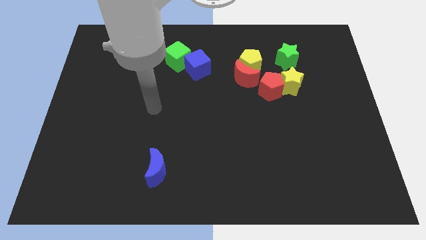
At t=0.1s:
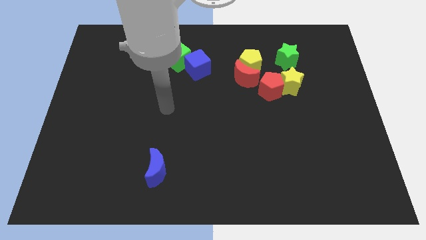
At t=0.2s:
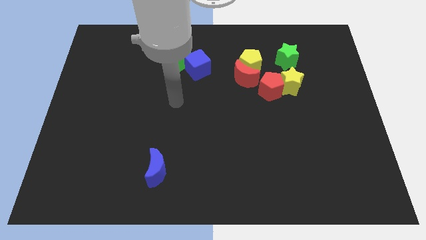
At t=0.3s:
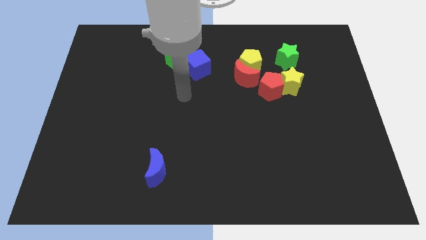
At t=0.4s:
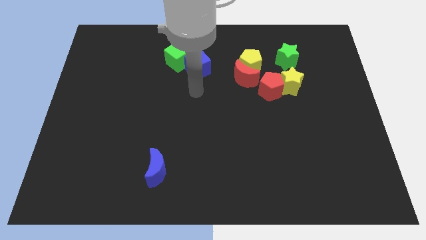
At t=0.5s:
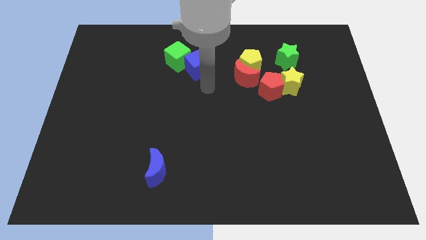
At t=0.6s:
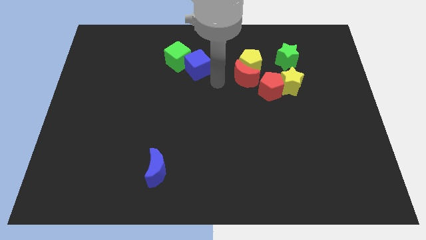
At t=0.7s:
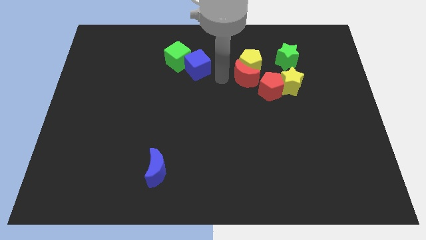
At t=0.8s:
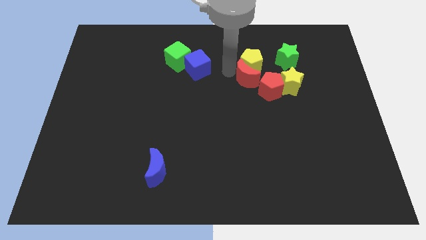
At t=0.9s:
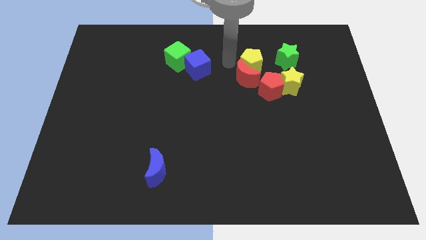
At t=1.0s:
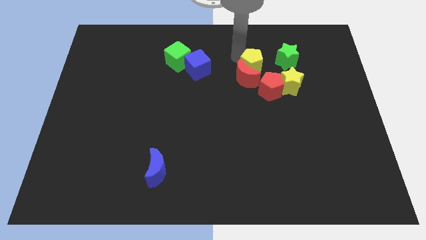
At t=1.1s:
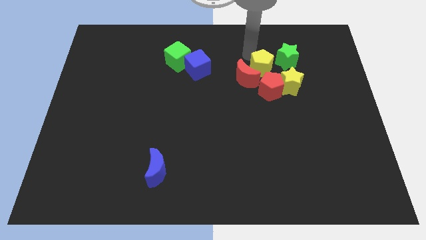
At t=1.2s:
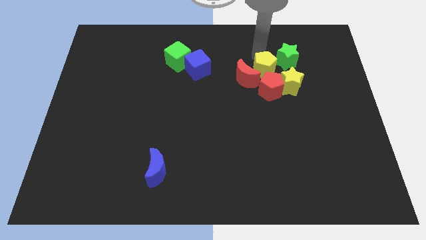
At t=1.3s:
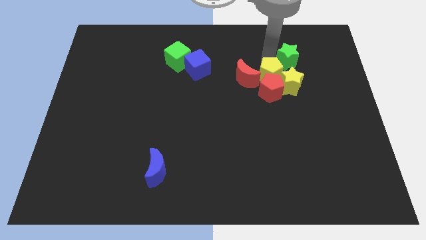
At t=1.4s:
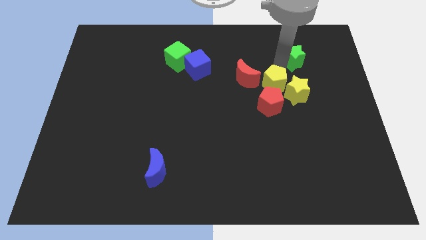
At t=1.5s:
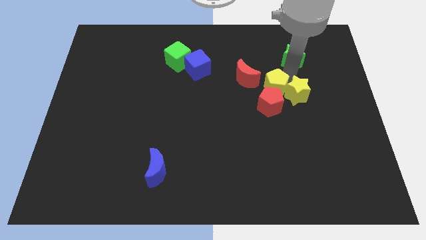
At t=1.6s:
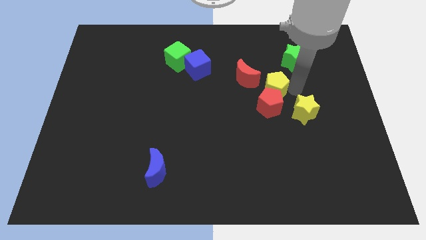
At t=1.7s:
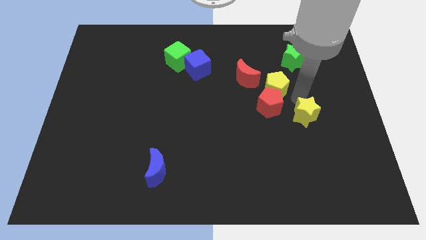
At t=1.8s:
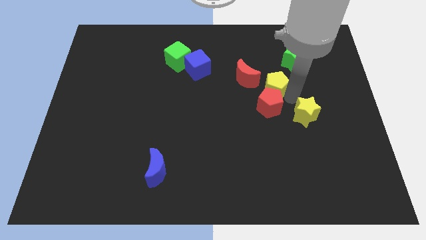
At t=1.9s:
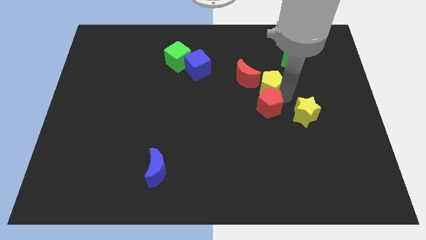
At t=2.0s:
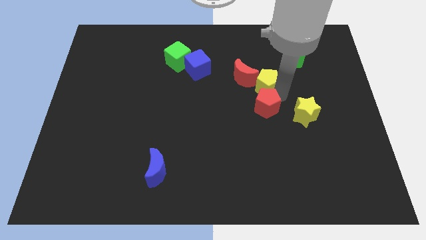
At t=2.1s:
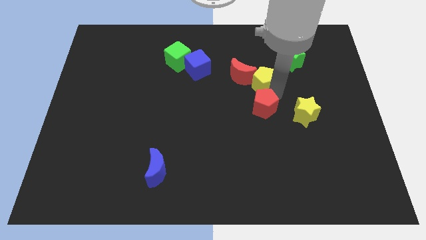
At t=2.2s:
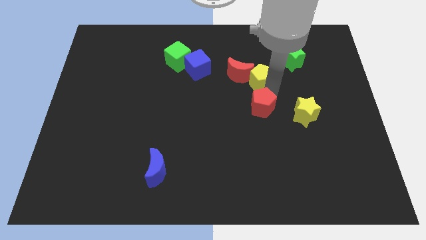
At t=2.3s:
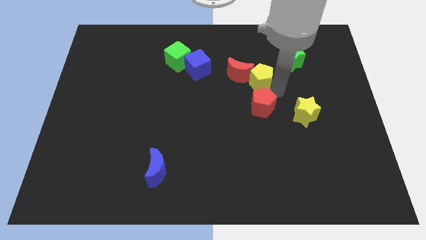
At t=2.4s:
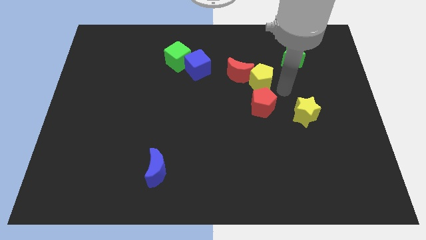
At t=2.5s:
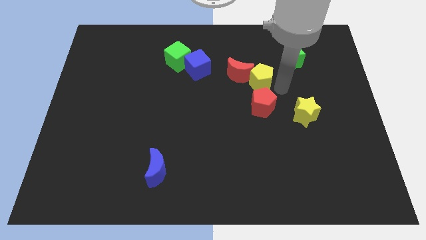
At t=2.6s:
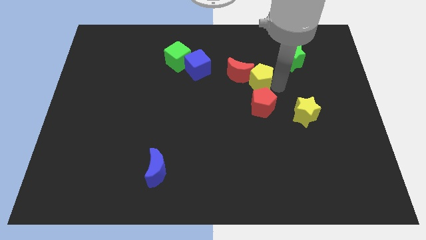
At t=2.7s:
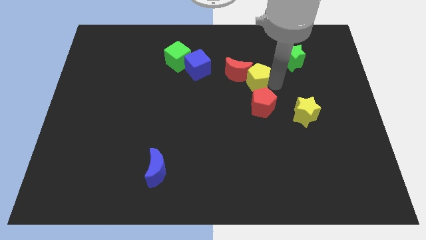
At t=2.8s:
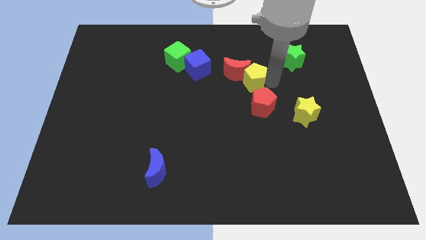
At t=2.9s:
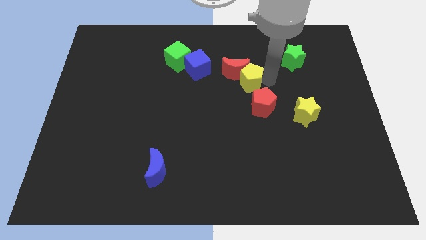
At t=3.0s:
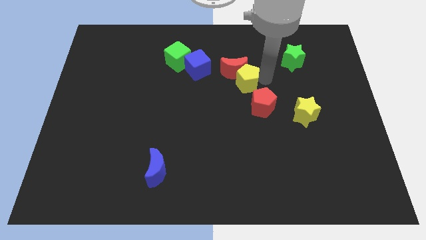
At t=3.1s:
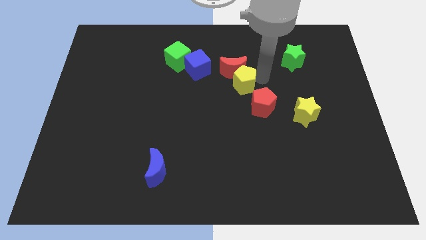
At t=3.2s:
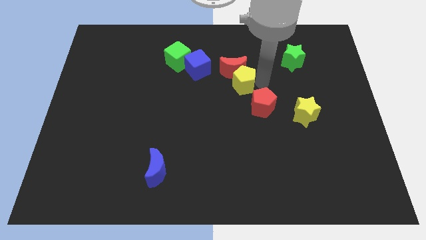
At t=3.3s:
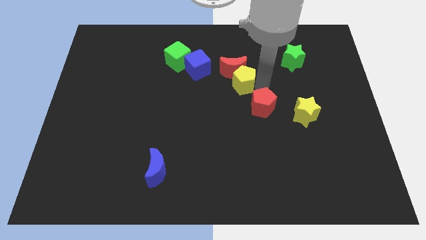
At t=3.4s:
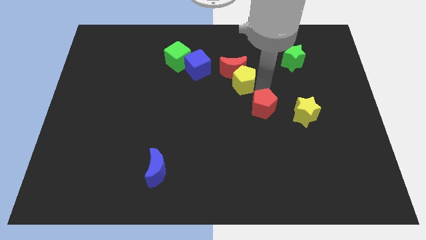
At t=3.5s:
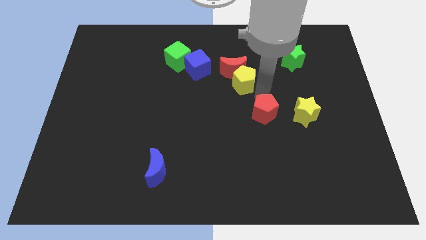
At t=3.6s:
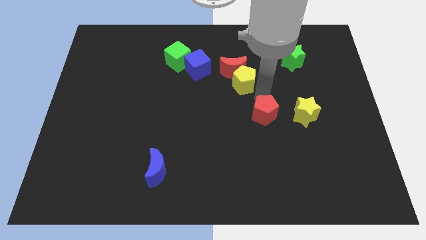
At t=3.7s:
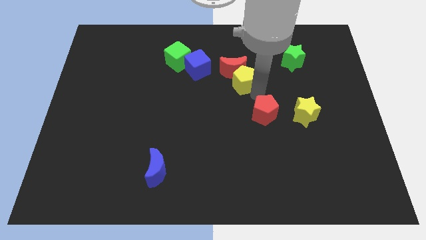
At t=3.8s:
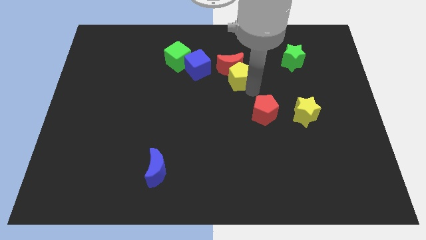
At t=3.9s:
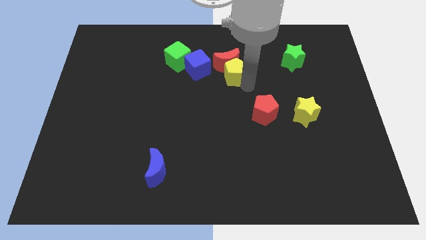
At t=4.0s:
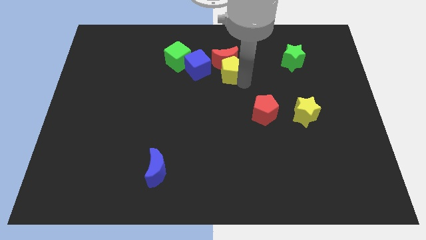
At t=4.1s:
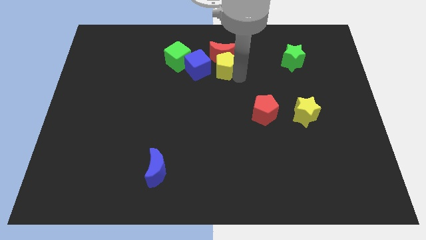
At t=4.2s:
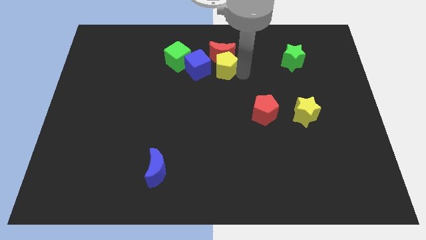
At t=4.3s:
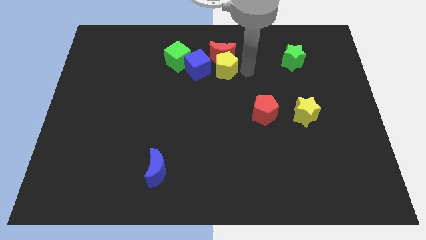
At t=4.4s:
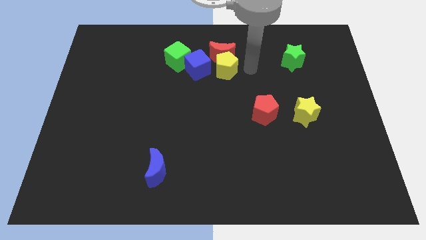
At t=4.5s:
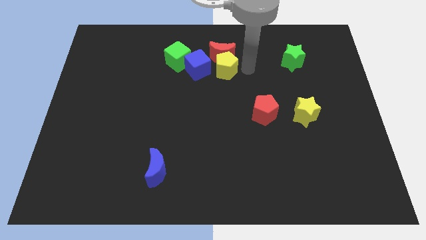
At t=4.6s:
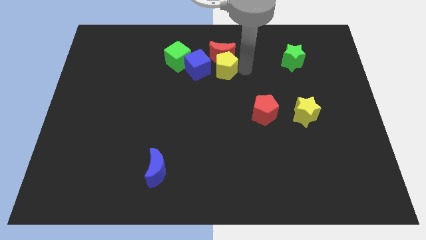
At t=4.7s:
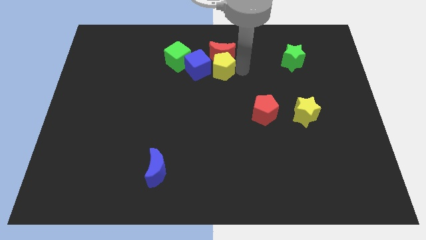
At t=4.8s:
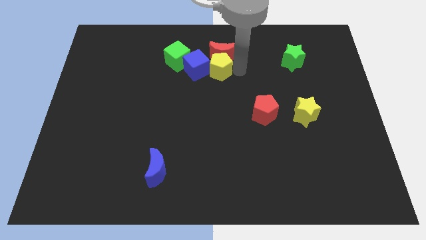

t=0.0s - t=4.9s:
move the yellow pentagon close to the blue cube

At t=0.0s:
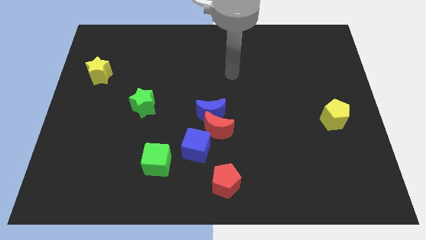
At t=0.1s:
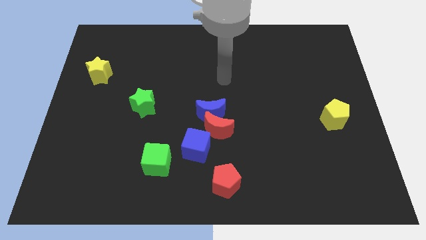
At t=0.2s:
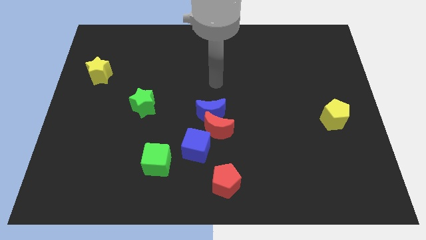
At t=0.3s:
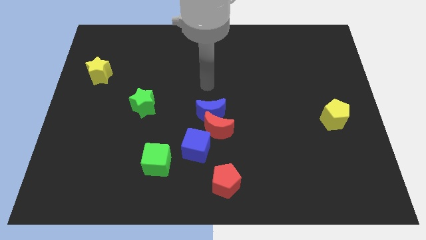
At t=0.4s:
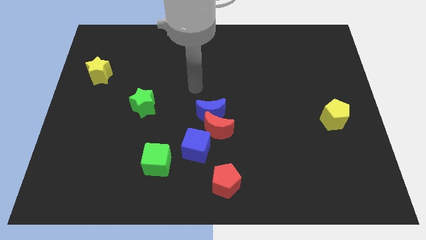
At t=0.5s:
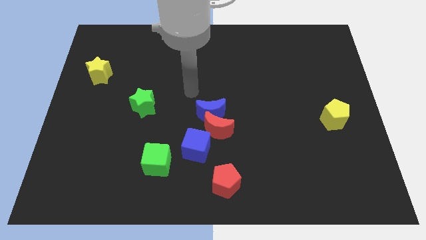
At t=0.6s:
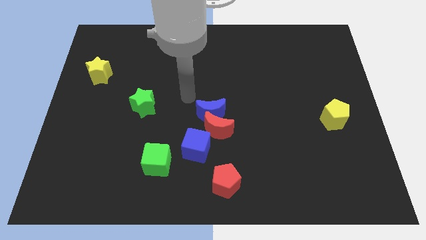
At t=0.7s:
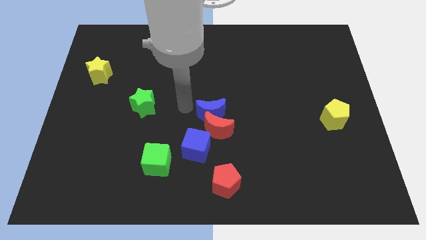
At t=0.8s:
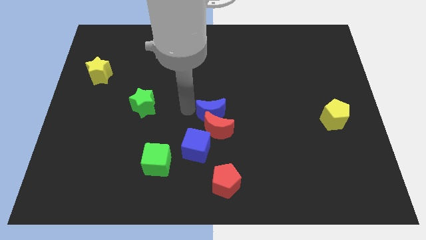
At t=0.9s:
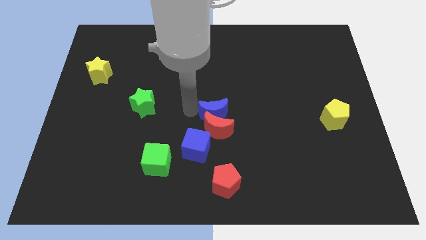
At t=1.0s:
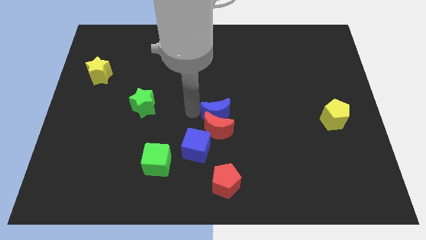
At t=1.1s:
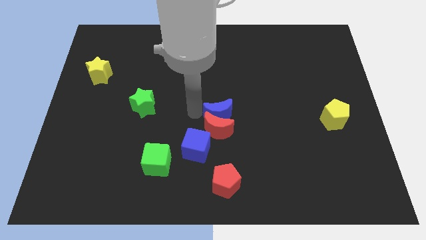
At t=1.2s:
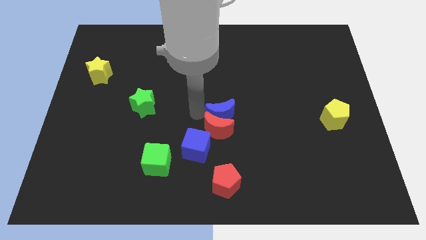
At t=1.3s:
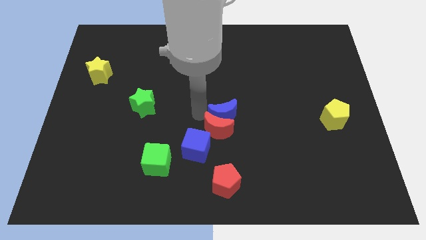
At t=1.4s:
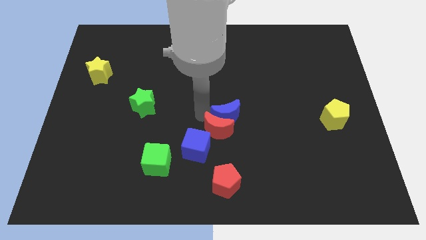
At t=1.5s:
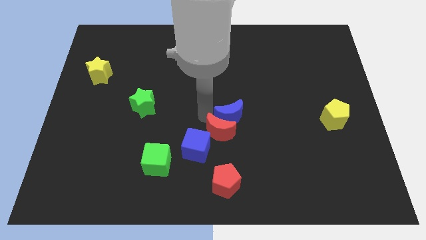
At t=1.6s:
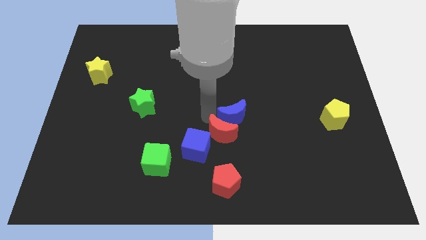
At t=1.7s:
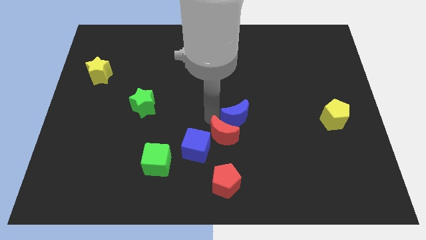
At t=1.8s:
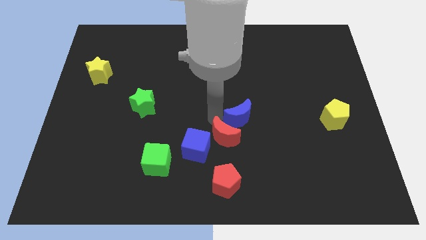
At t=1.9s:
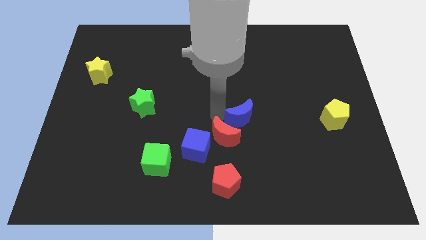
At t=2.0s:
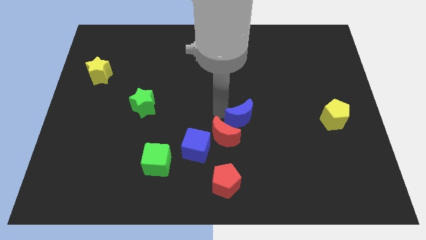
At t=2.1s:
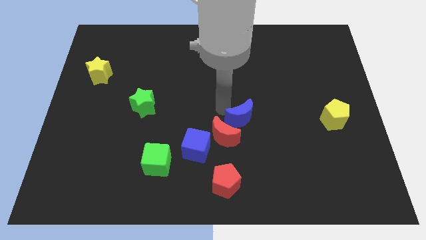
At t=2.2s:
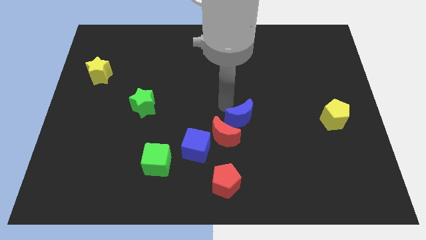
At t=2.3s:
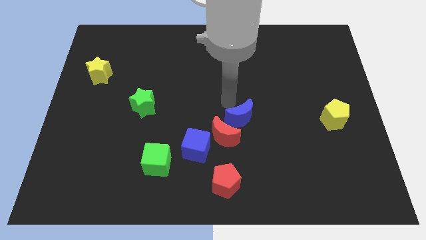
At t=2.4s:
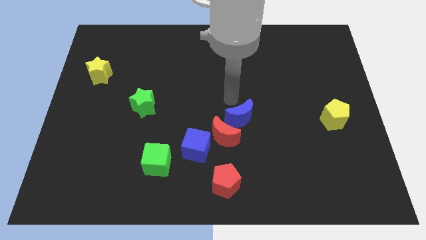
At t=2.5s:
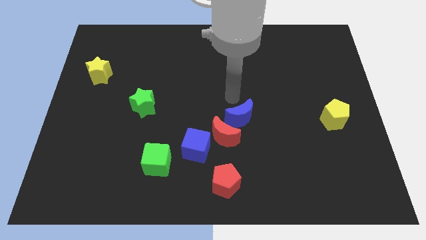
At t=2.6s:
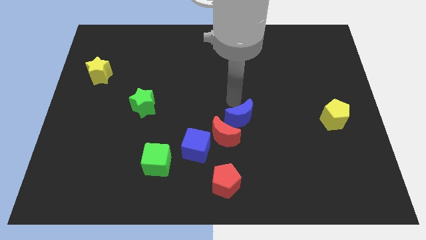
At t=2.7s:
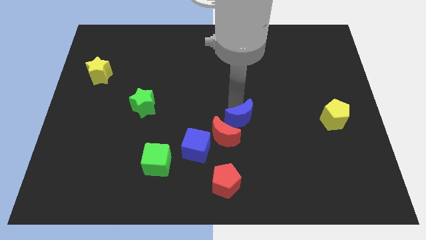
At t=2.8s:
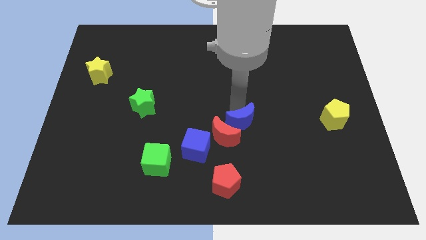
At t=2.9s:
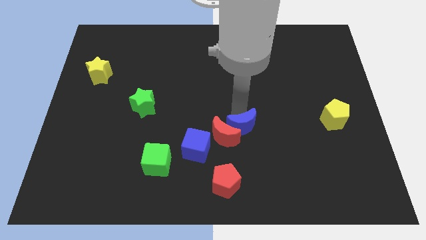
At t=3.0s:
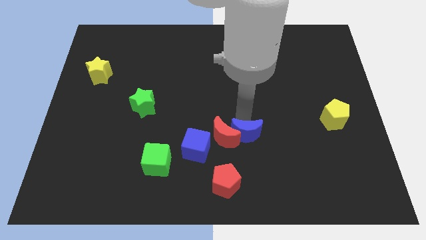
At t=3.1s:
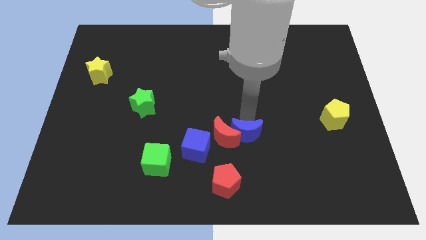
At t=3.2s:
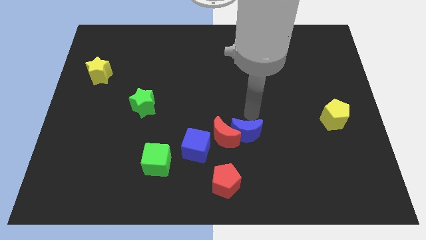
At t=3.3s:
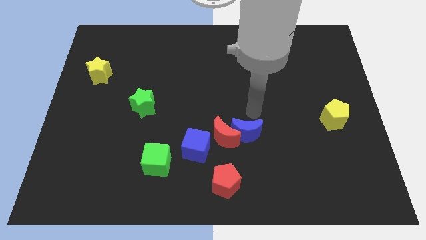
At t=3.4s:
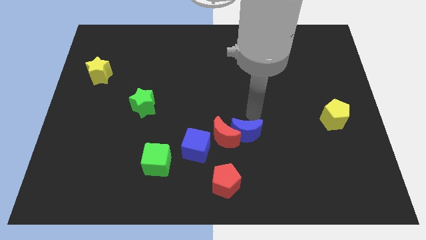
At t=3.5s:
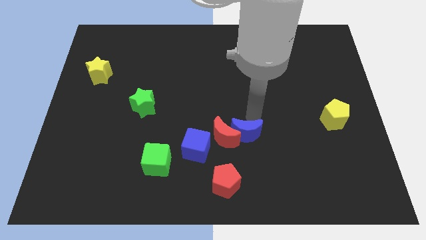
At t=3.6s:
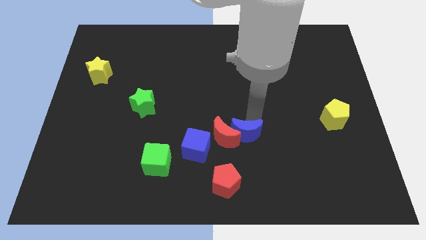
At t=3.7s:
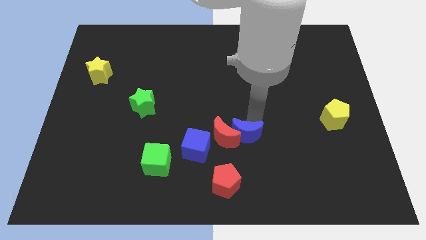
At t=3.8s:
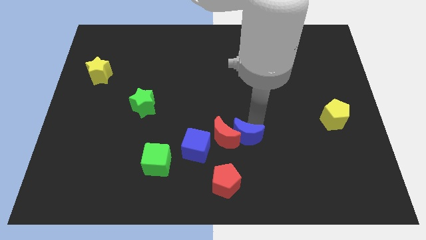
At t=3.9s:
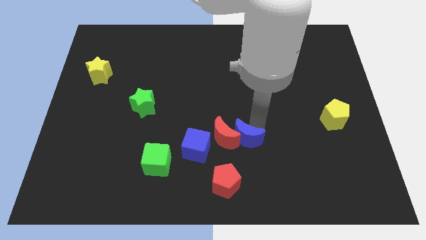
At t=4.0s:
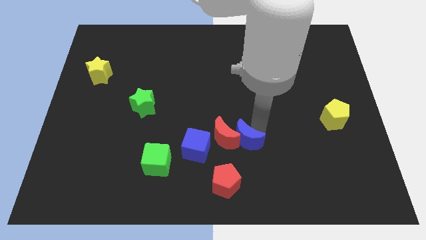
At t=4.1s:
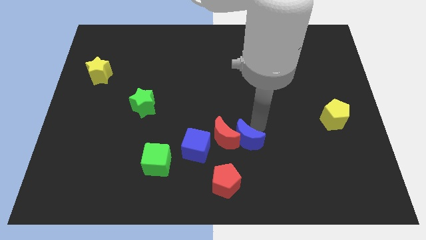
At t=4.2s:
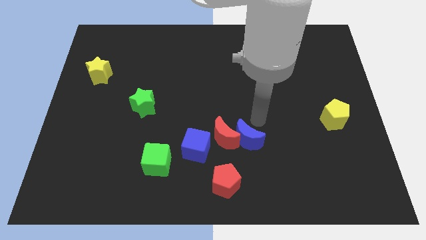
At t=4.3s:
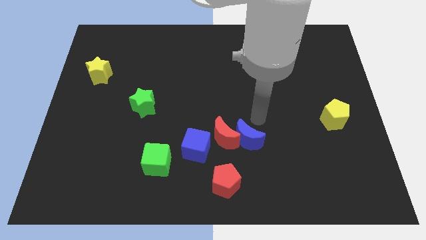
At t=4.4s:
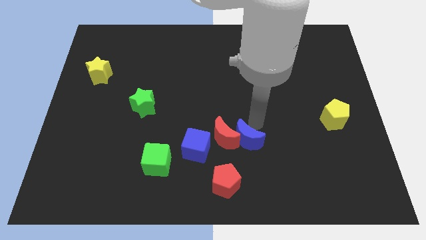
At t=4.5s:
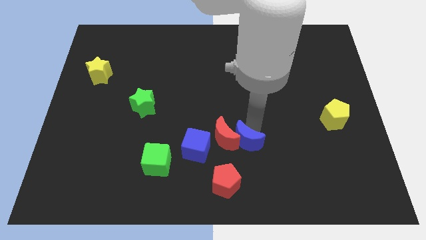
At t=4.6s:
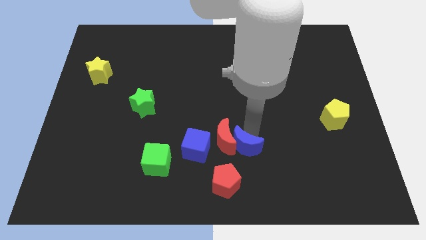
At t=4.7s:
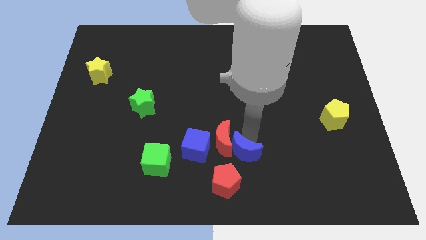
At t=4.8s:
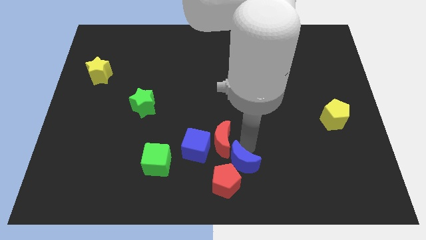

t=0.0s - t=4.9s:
move the blue moon next to the red pentagon
